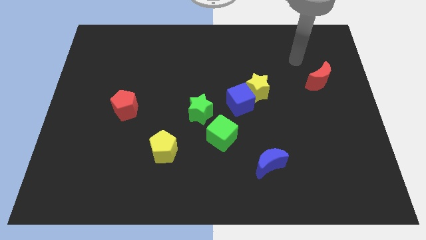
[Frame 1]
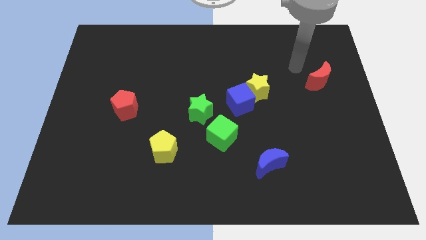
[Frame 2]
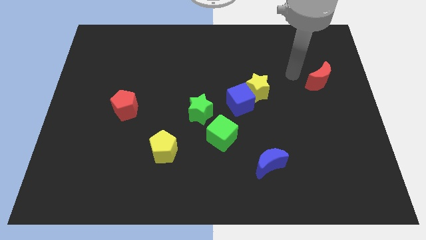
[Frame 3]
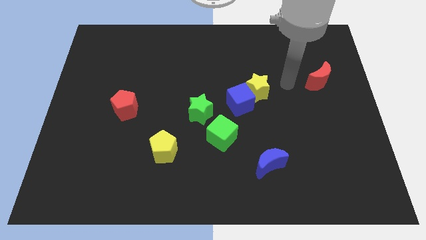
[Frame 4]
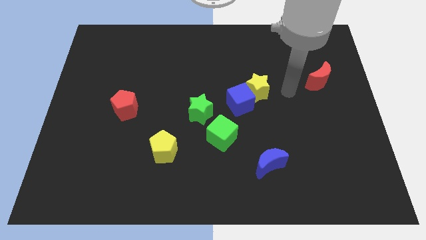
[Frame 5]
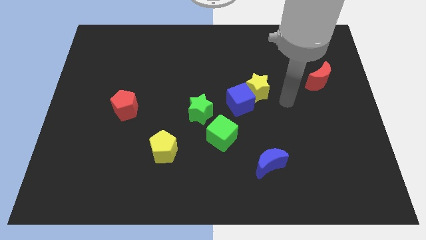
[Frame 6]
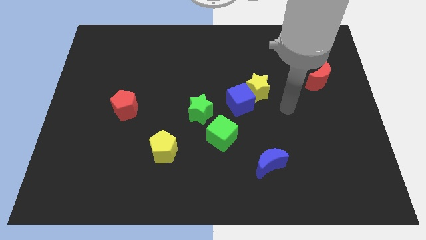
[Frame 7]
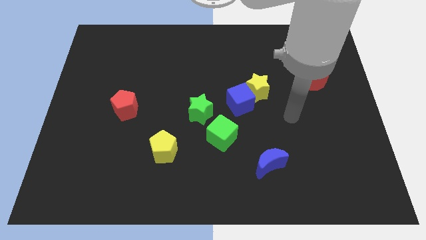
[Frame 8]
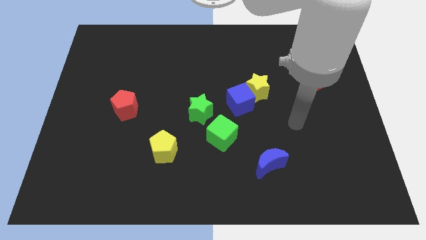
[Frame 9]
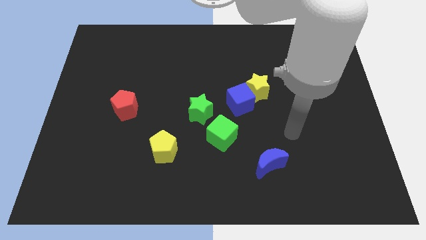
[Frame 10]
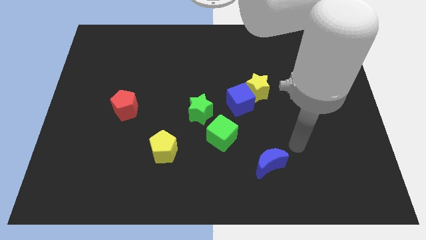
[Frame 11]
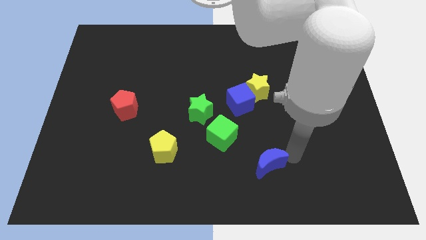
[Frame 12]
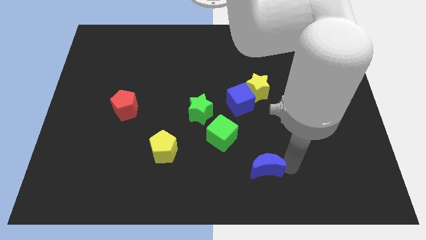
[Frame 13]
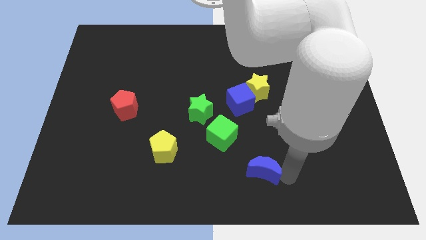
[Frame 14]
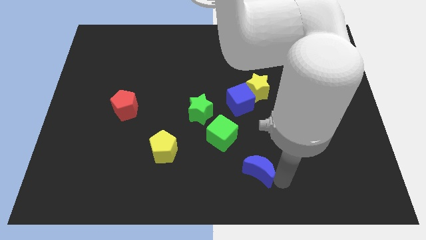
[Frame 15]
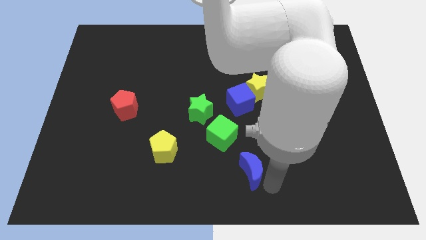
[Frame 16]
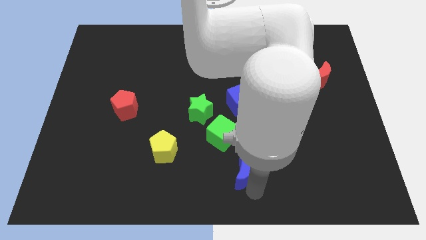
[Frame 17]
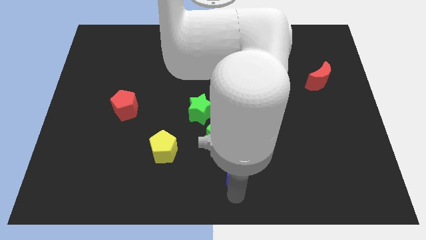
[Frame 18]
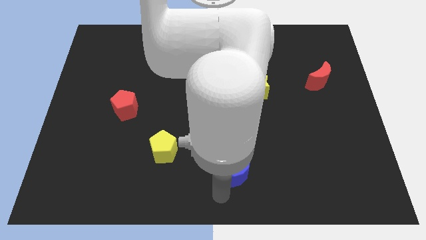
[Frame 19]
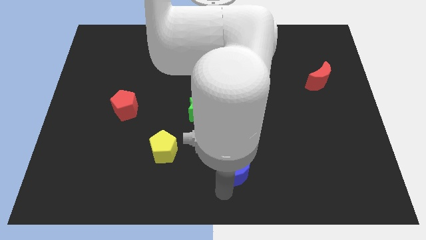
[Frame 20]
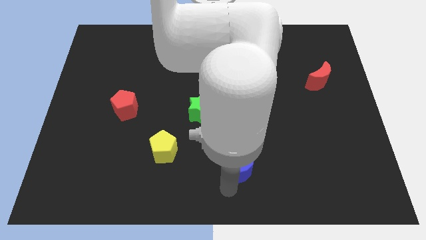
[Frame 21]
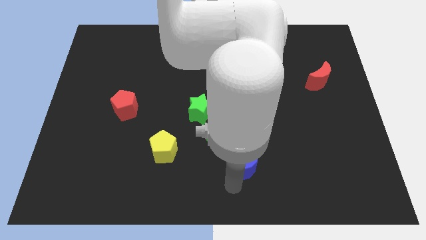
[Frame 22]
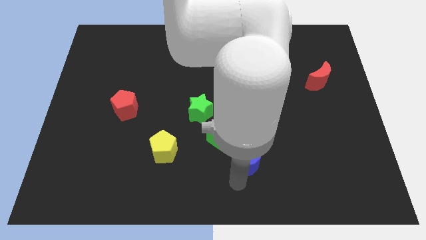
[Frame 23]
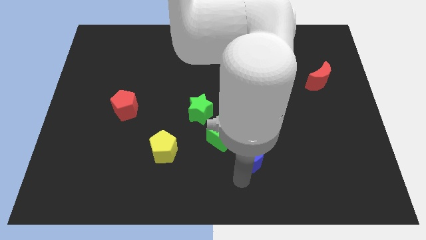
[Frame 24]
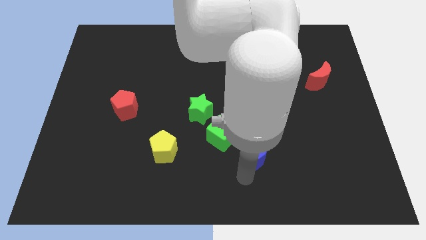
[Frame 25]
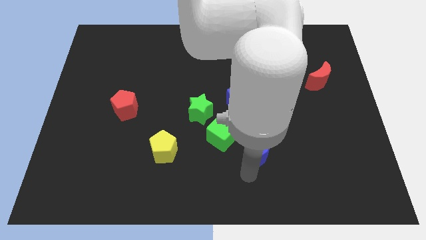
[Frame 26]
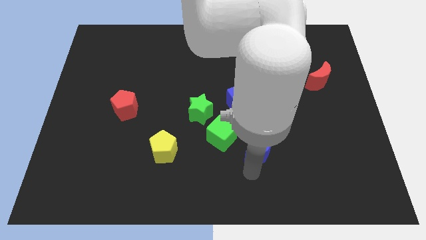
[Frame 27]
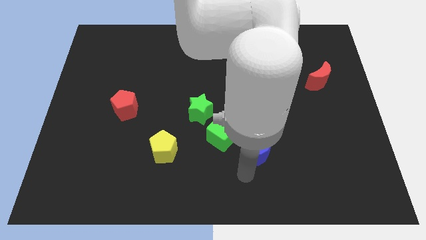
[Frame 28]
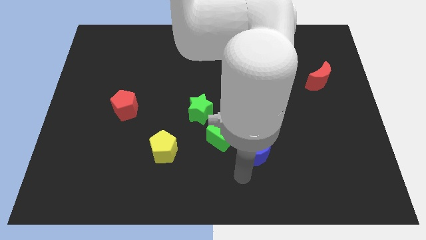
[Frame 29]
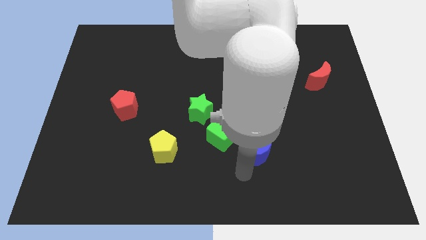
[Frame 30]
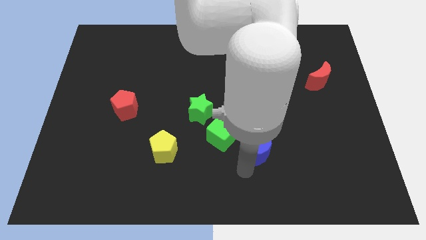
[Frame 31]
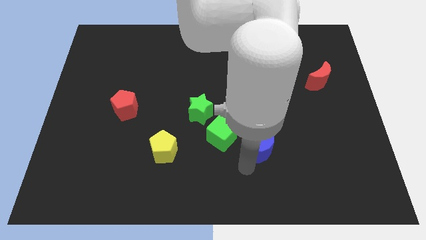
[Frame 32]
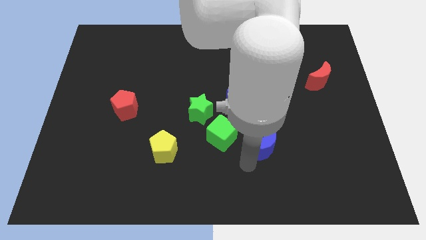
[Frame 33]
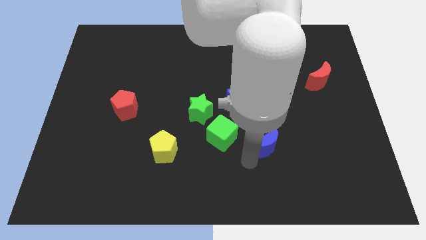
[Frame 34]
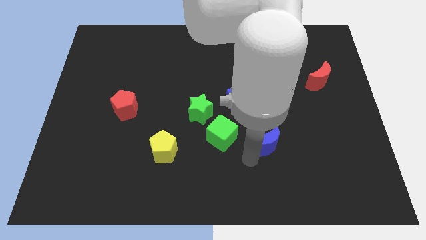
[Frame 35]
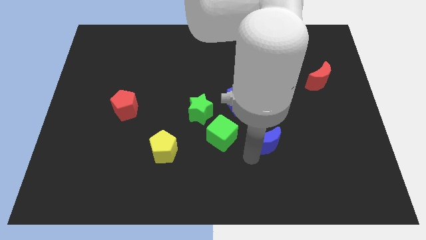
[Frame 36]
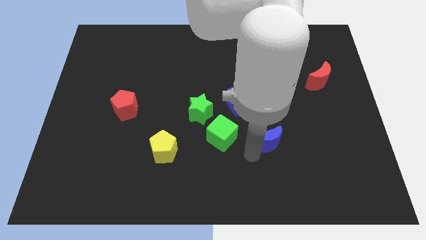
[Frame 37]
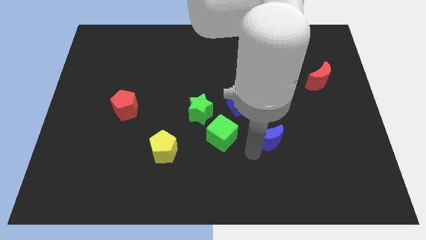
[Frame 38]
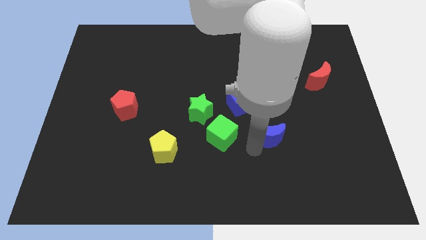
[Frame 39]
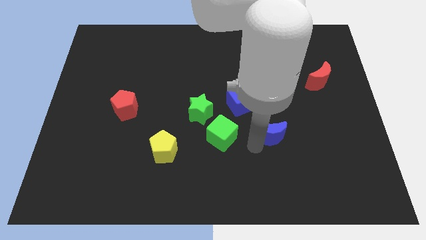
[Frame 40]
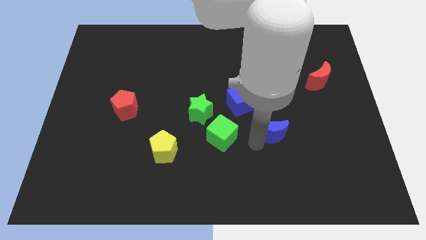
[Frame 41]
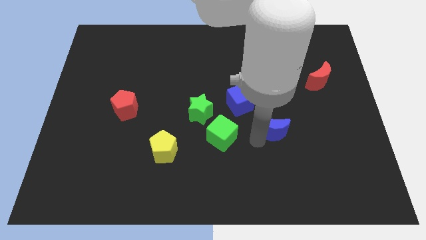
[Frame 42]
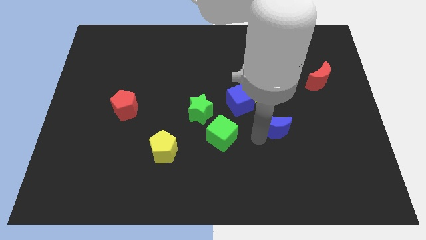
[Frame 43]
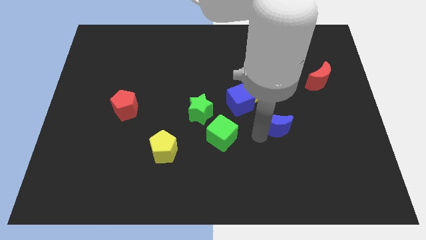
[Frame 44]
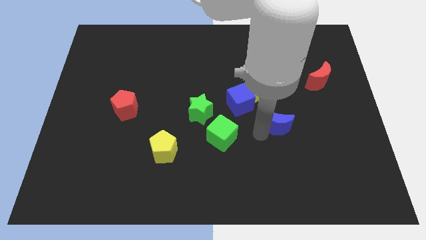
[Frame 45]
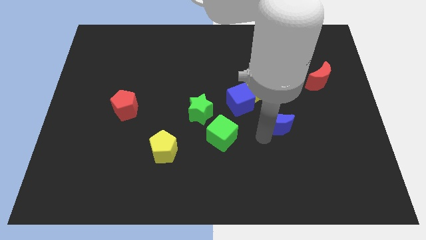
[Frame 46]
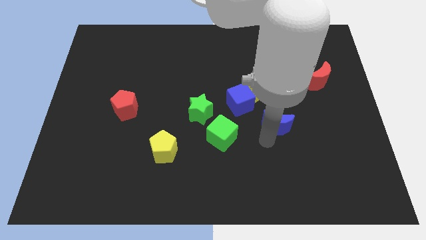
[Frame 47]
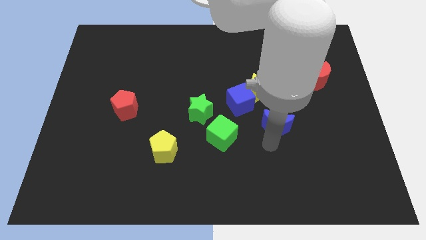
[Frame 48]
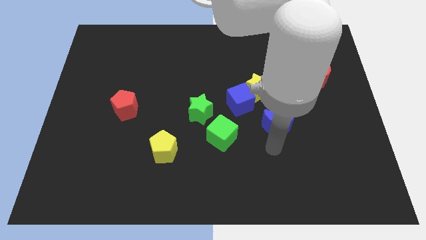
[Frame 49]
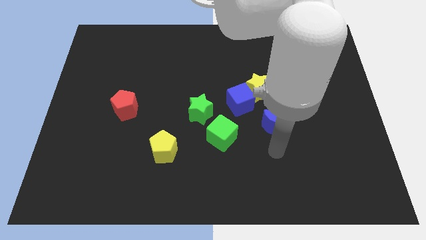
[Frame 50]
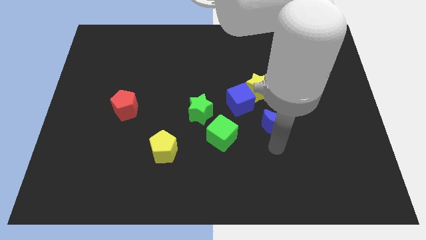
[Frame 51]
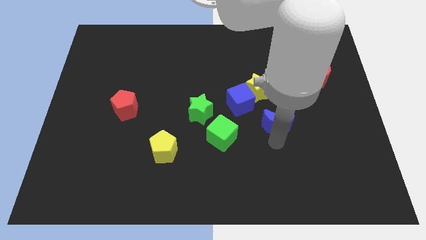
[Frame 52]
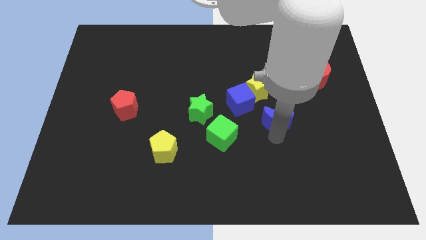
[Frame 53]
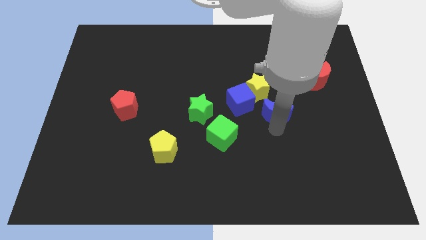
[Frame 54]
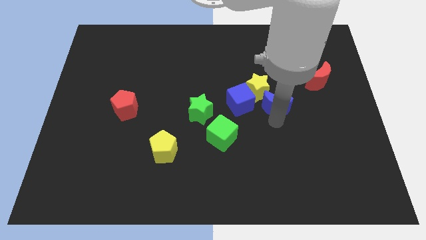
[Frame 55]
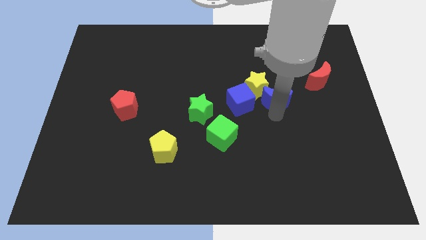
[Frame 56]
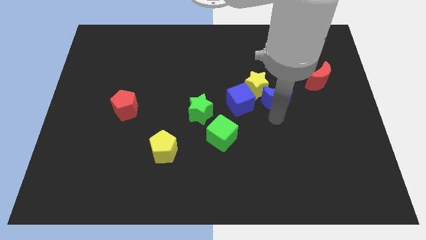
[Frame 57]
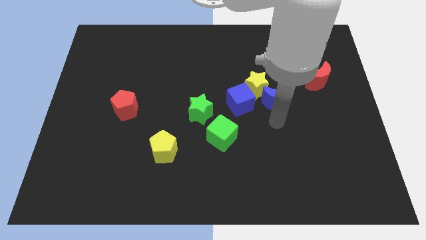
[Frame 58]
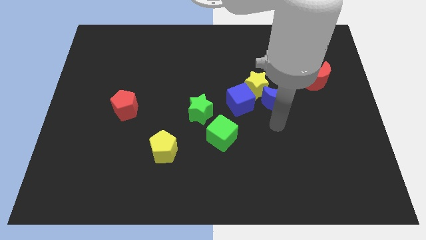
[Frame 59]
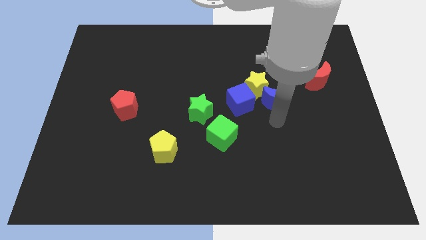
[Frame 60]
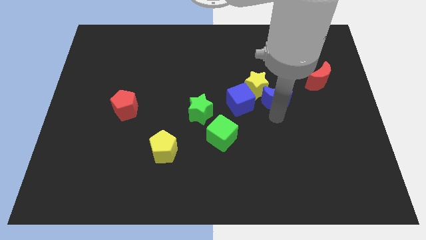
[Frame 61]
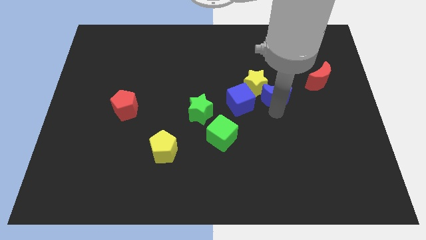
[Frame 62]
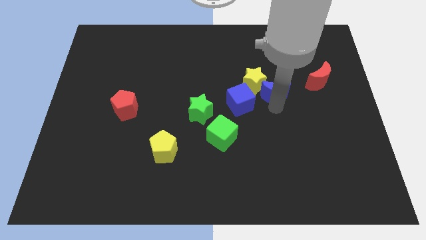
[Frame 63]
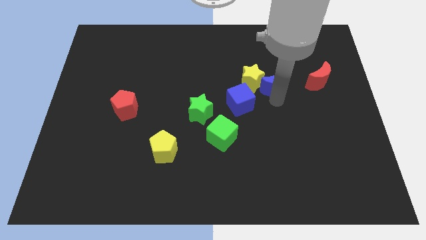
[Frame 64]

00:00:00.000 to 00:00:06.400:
move the blue moon up

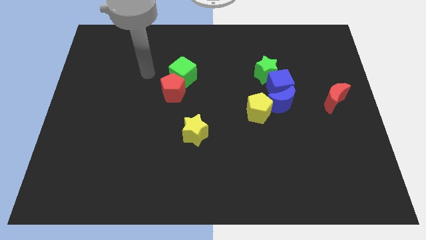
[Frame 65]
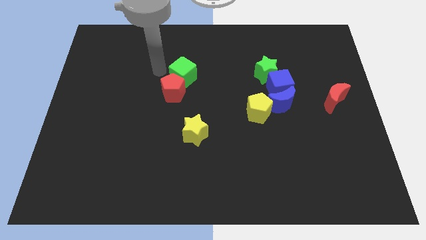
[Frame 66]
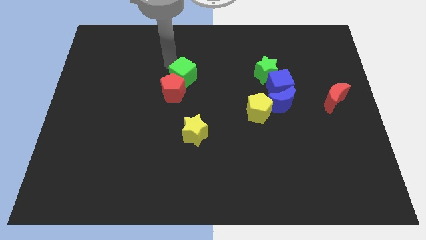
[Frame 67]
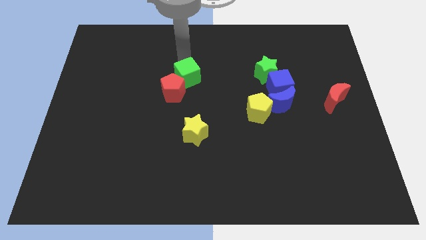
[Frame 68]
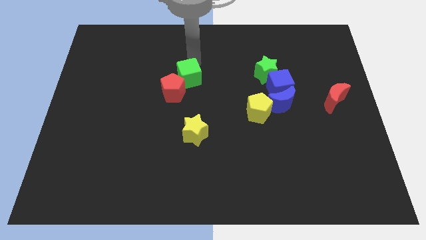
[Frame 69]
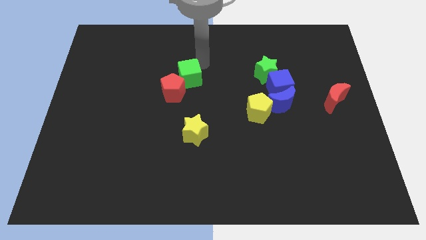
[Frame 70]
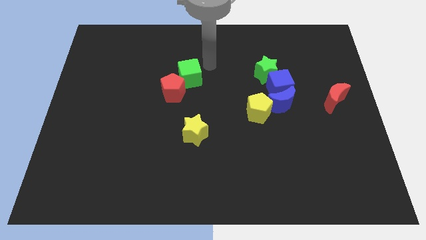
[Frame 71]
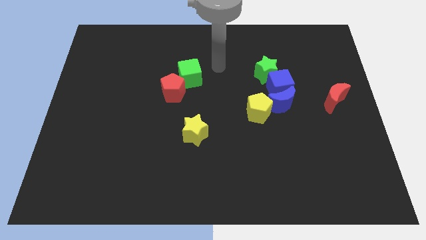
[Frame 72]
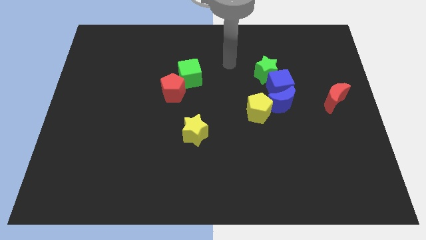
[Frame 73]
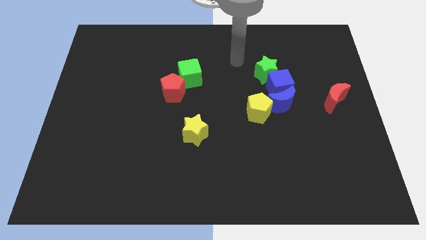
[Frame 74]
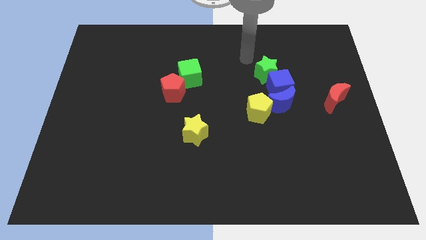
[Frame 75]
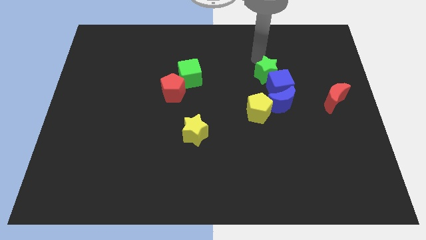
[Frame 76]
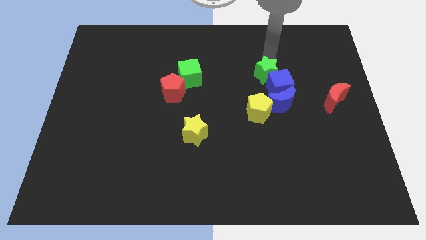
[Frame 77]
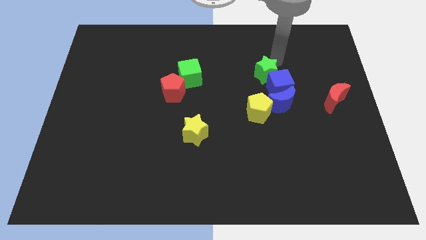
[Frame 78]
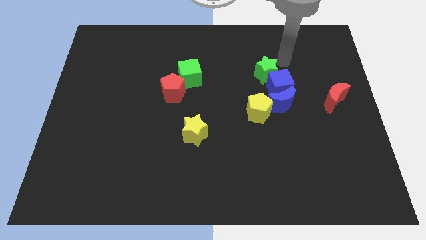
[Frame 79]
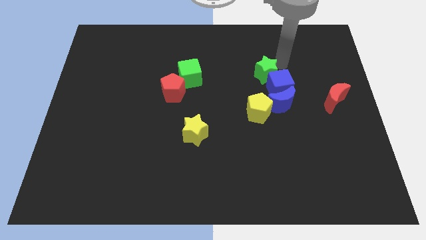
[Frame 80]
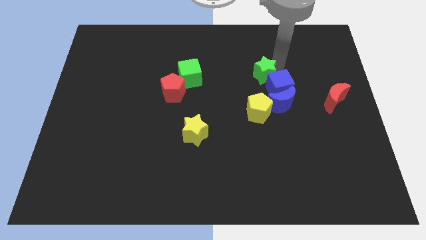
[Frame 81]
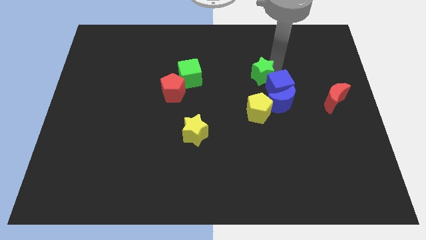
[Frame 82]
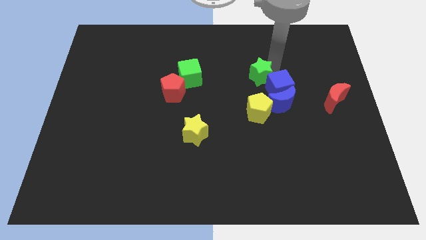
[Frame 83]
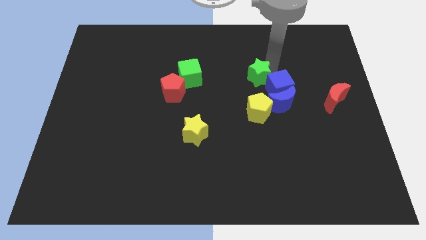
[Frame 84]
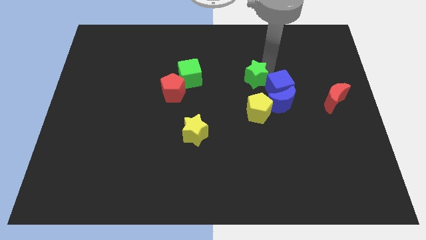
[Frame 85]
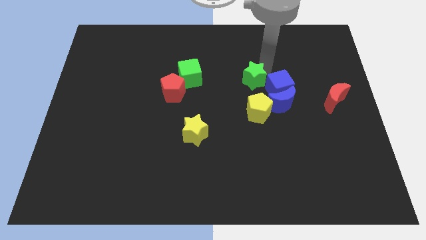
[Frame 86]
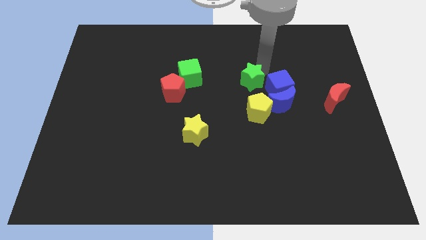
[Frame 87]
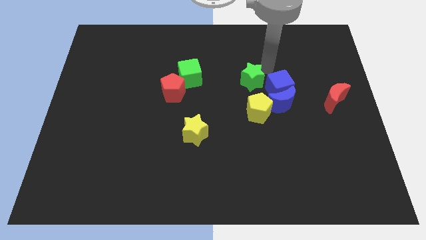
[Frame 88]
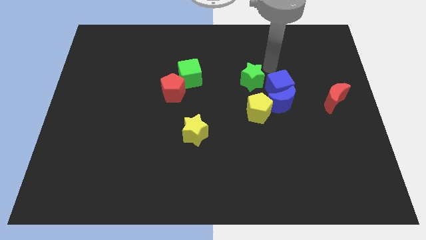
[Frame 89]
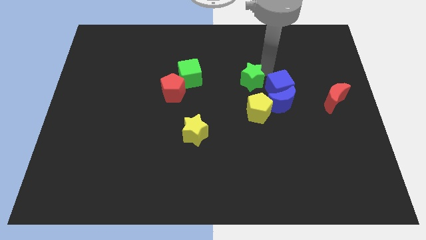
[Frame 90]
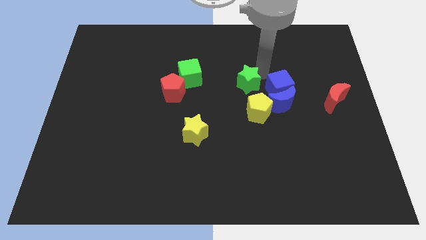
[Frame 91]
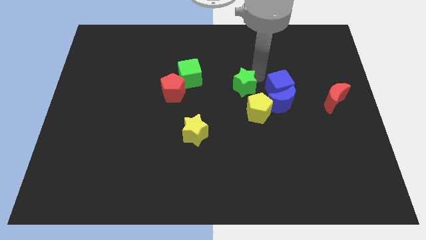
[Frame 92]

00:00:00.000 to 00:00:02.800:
slightly push the green star down and to the left diagonally
